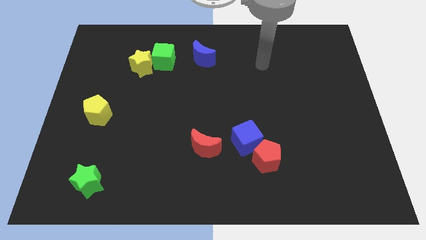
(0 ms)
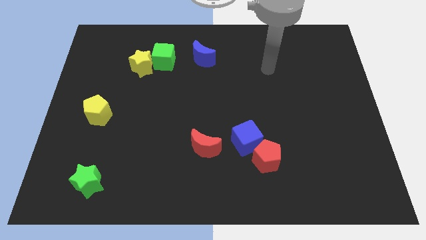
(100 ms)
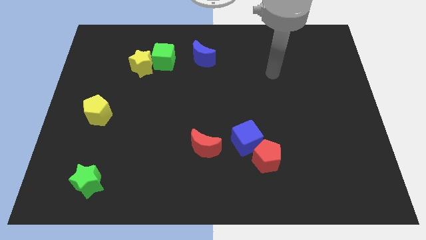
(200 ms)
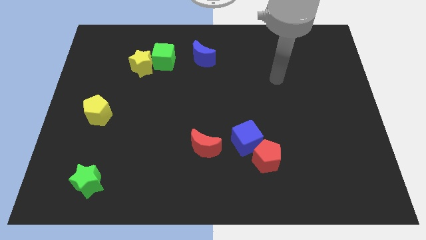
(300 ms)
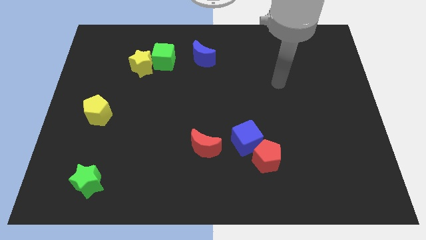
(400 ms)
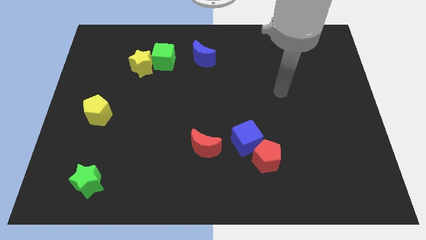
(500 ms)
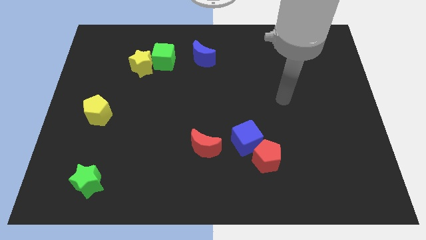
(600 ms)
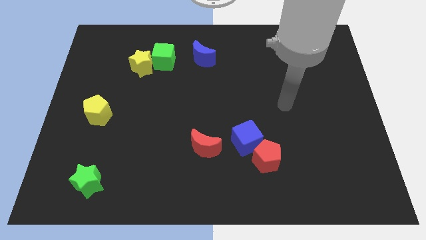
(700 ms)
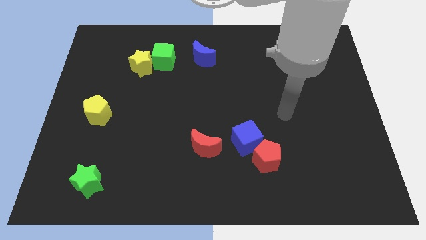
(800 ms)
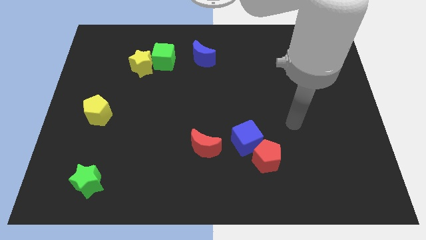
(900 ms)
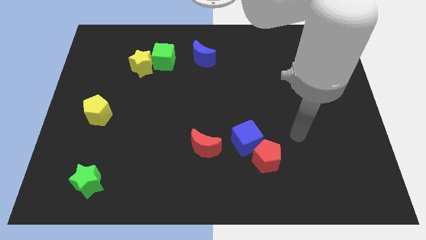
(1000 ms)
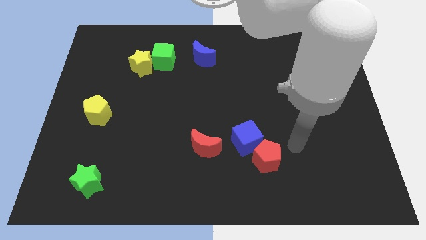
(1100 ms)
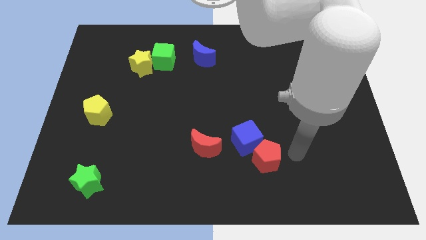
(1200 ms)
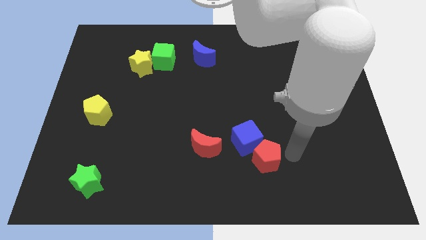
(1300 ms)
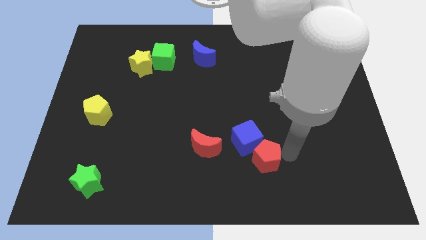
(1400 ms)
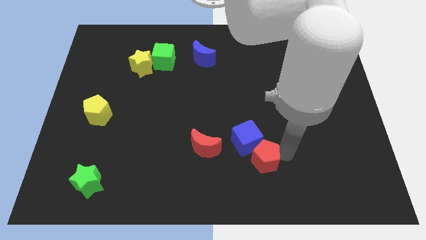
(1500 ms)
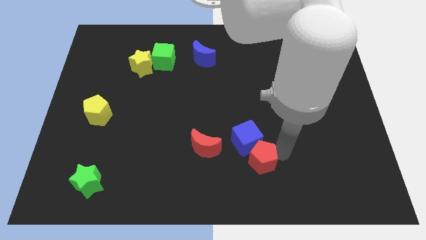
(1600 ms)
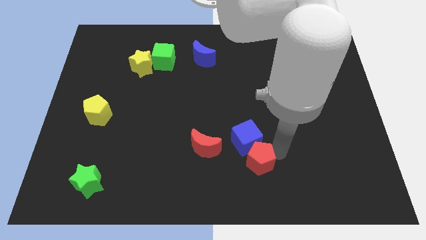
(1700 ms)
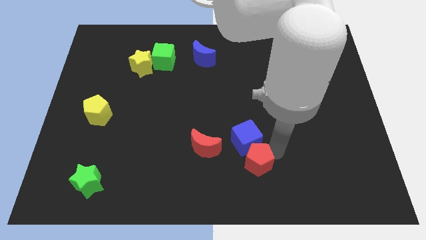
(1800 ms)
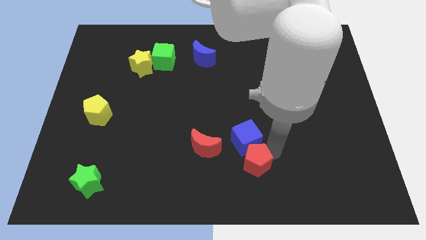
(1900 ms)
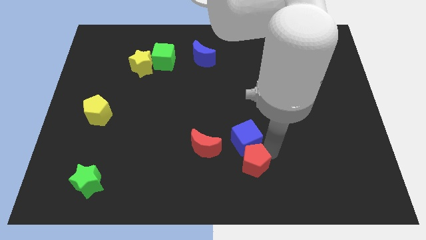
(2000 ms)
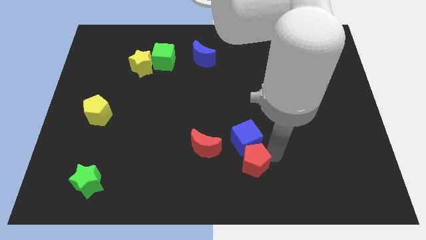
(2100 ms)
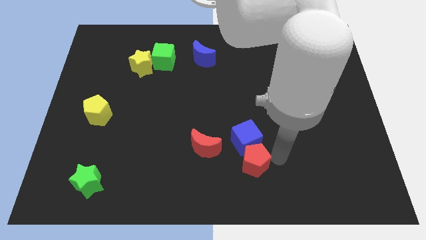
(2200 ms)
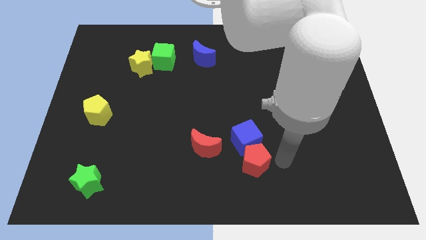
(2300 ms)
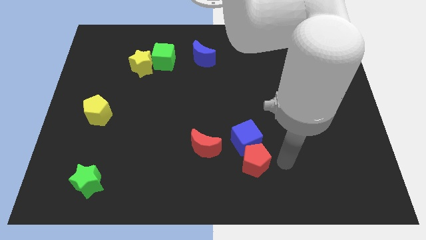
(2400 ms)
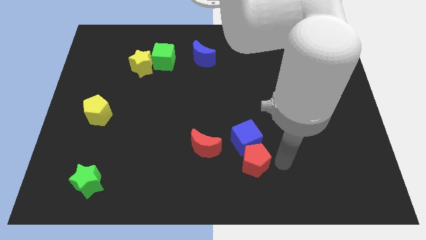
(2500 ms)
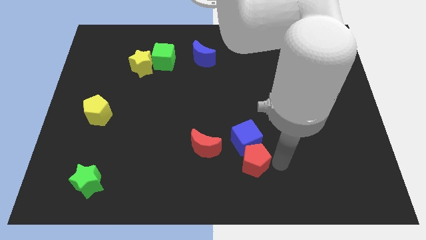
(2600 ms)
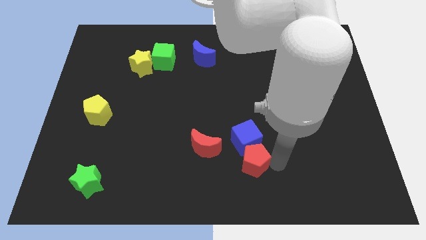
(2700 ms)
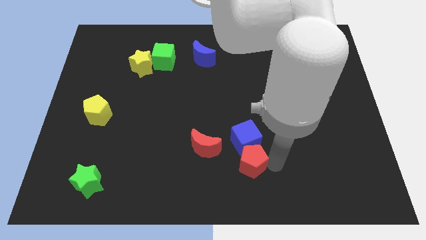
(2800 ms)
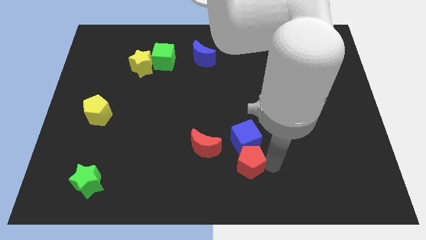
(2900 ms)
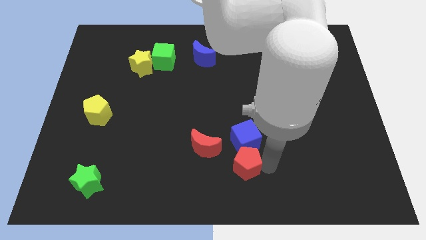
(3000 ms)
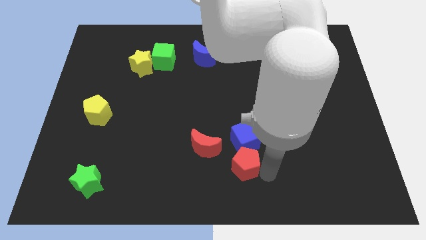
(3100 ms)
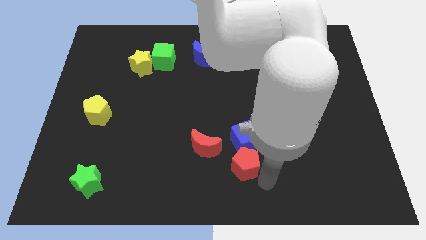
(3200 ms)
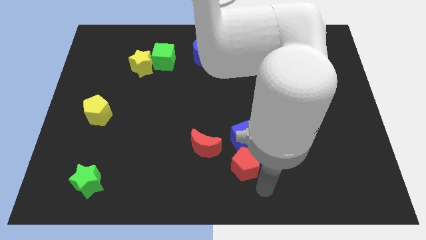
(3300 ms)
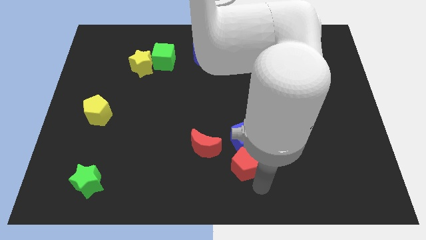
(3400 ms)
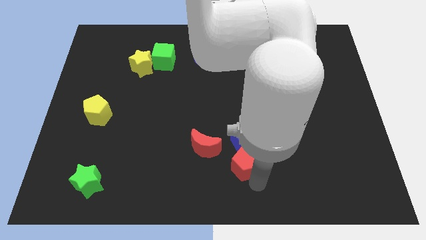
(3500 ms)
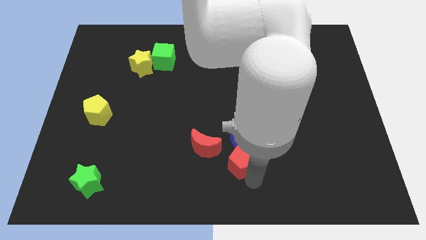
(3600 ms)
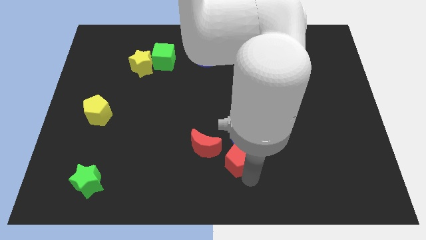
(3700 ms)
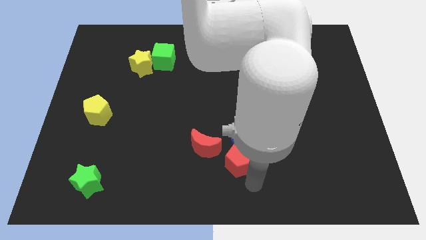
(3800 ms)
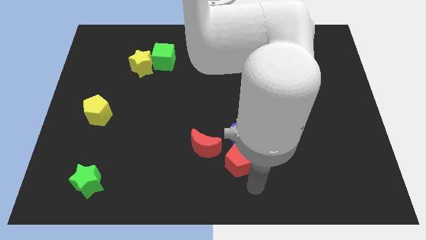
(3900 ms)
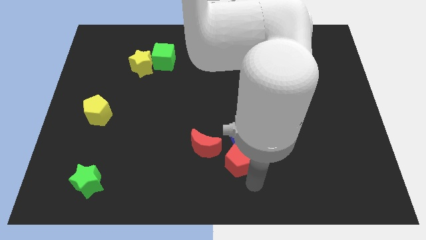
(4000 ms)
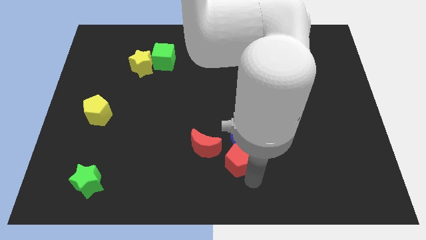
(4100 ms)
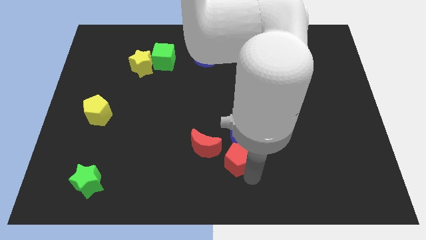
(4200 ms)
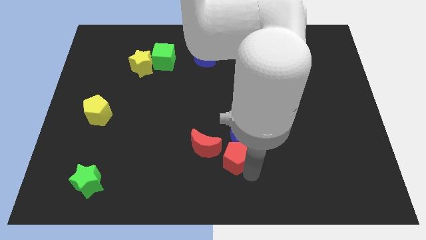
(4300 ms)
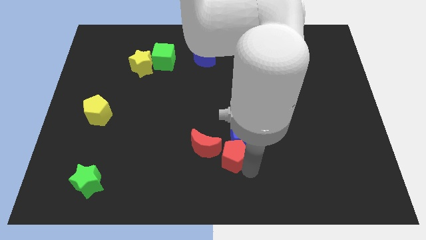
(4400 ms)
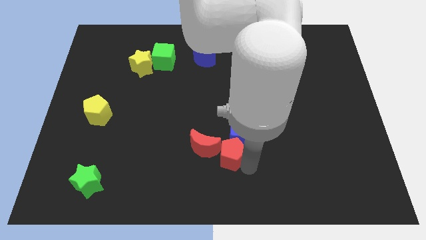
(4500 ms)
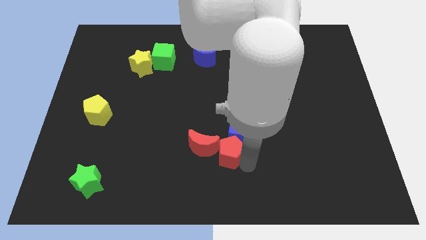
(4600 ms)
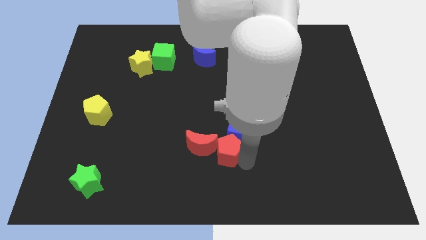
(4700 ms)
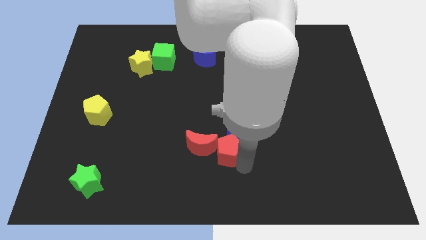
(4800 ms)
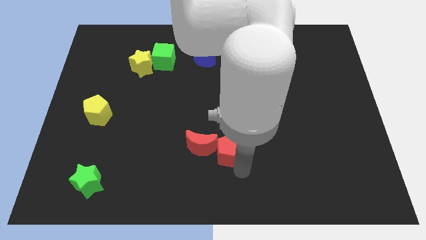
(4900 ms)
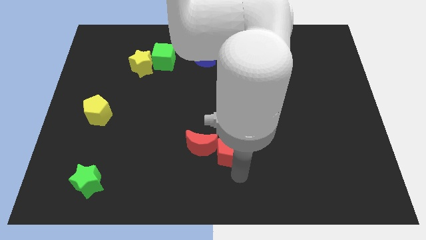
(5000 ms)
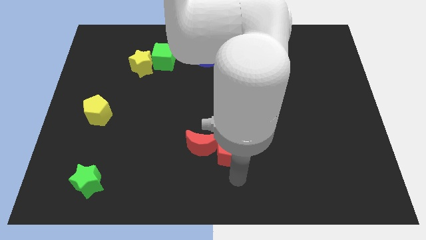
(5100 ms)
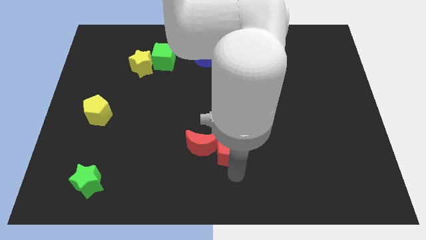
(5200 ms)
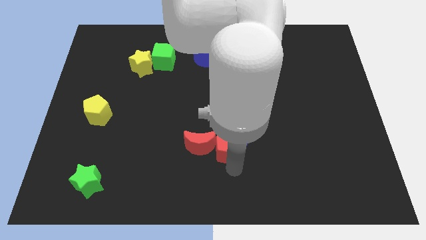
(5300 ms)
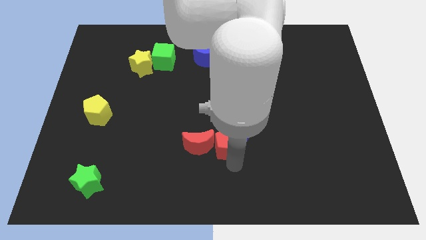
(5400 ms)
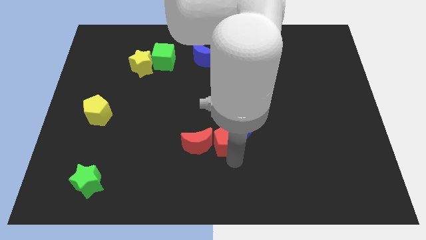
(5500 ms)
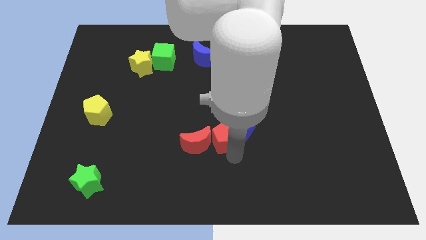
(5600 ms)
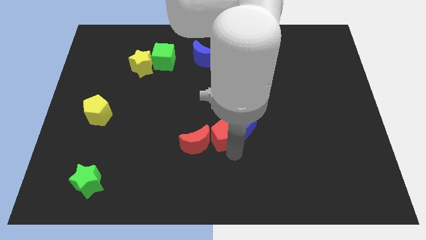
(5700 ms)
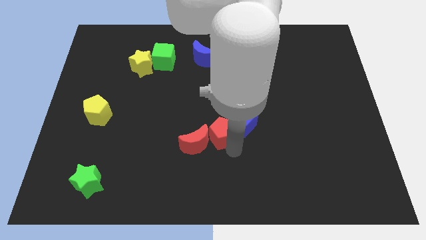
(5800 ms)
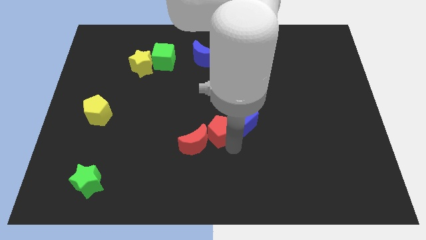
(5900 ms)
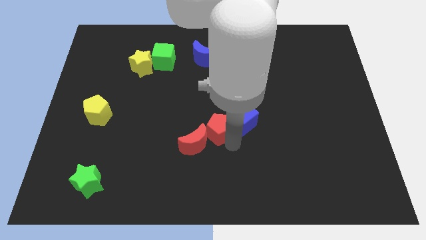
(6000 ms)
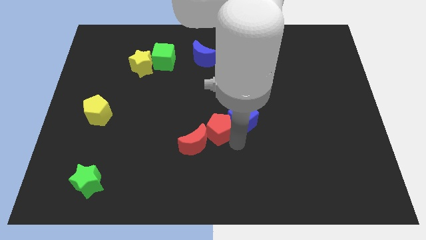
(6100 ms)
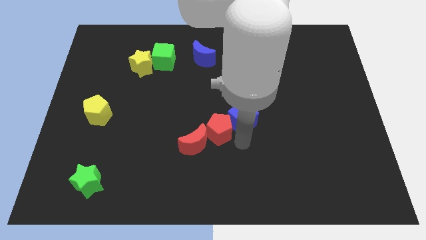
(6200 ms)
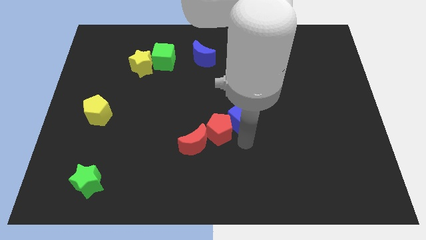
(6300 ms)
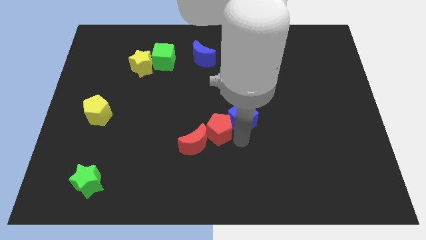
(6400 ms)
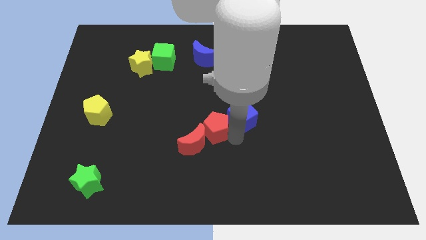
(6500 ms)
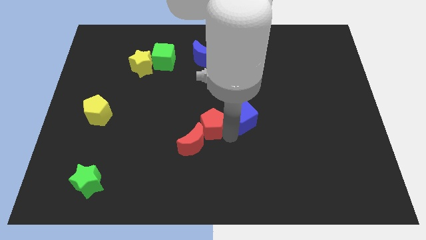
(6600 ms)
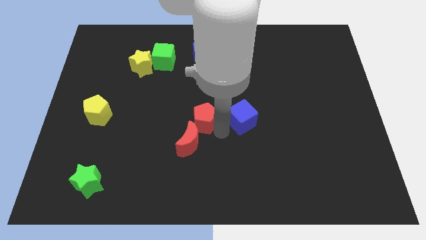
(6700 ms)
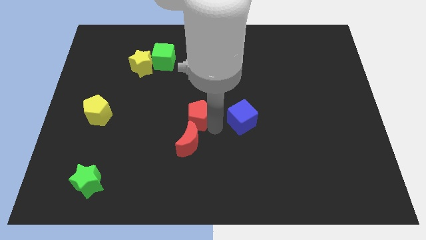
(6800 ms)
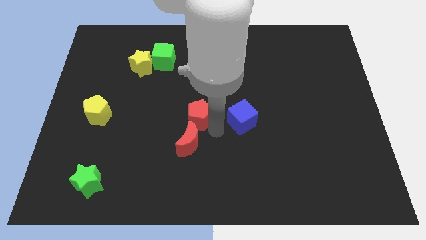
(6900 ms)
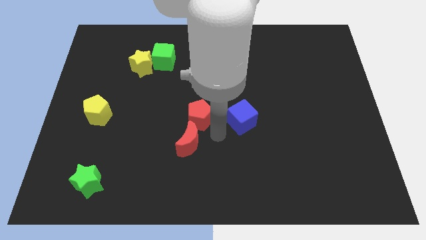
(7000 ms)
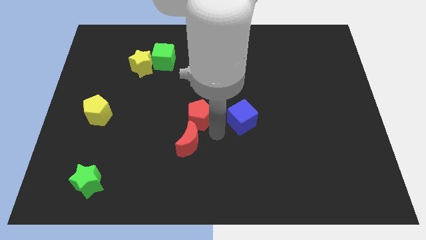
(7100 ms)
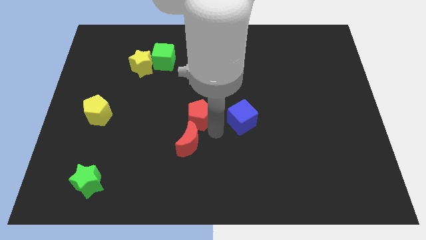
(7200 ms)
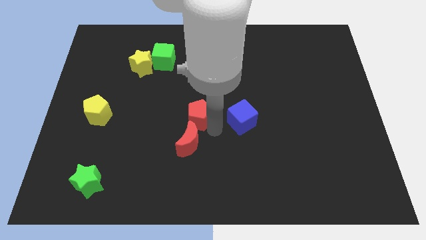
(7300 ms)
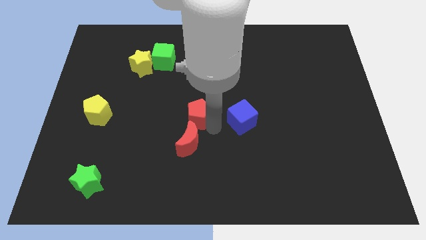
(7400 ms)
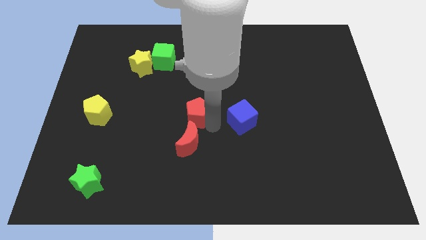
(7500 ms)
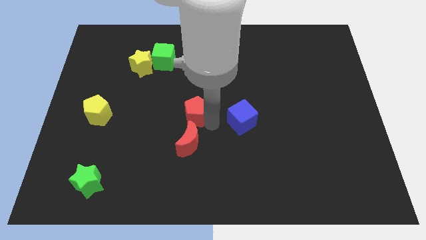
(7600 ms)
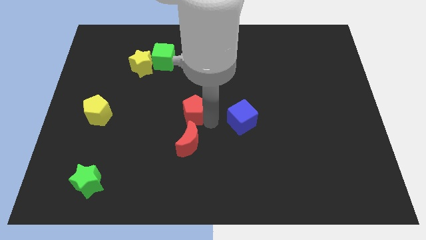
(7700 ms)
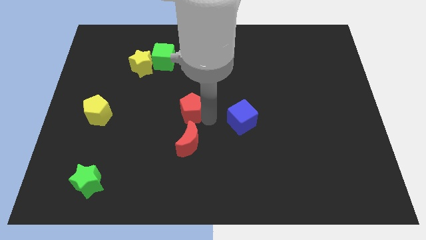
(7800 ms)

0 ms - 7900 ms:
slide the red pentagon upwards and left diagonally
